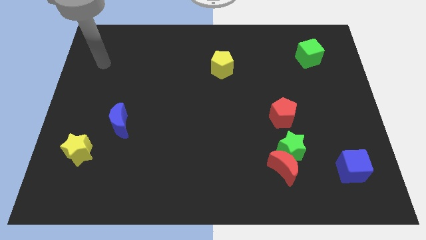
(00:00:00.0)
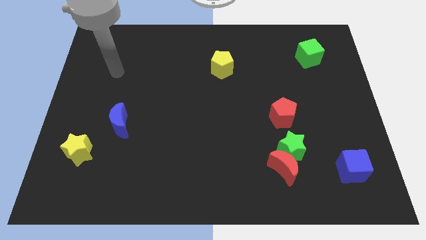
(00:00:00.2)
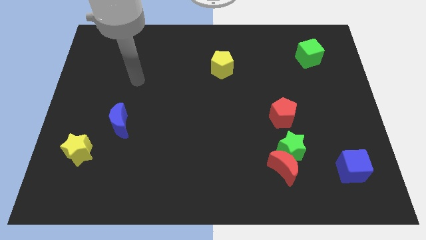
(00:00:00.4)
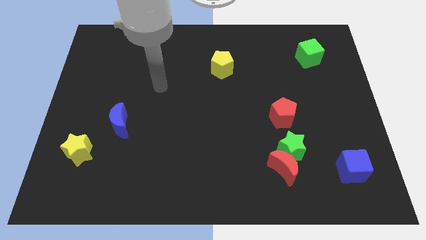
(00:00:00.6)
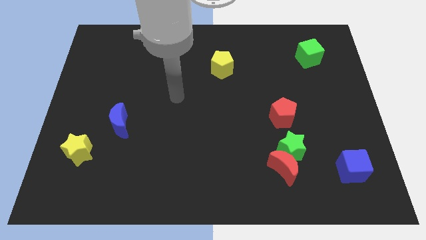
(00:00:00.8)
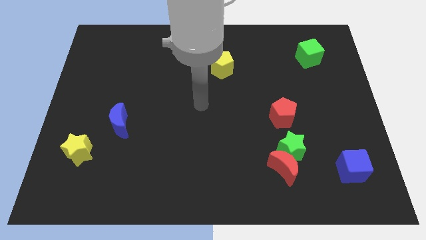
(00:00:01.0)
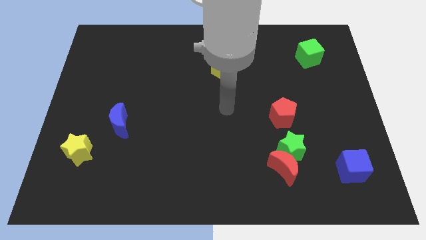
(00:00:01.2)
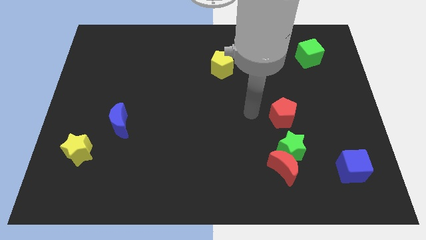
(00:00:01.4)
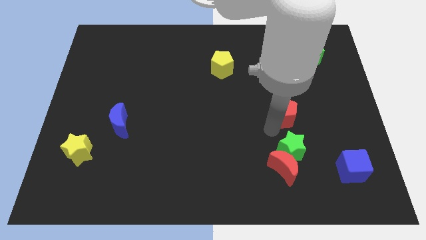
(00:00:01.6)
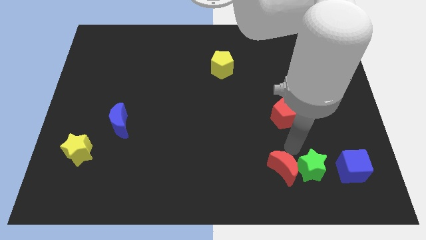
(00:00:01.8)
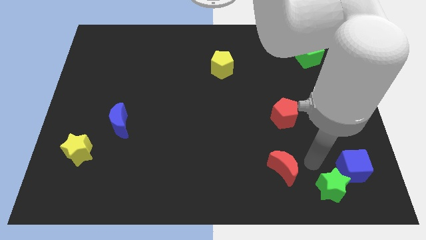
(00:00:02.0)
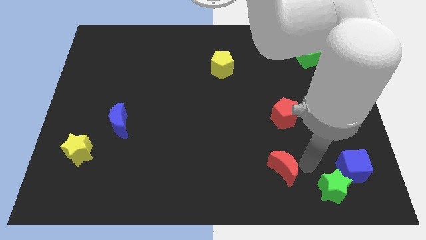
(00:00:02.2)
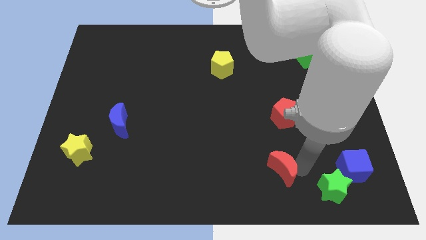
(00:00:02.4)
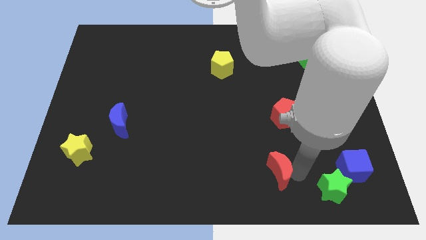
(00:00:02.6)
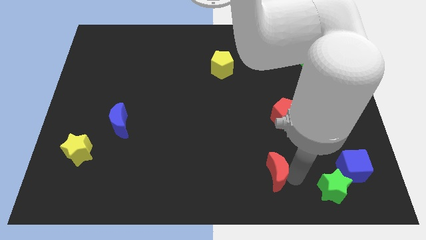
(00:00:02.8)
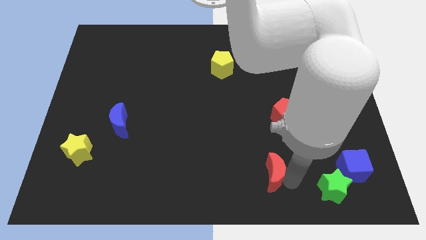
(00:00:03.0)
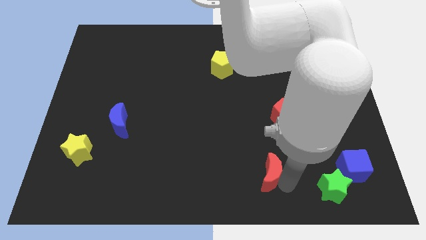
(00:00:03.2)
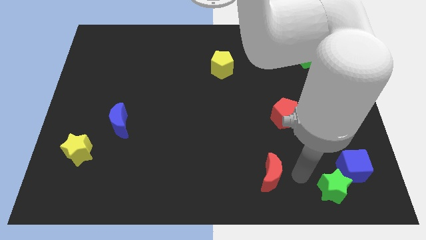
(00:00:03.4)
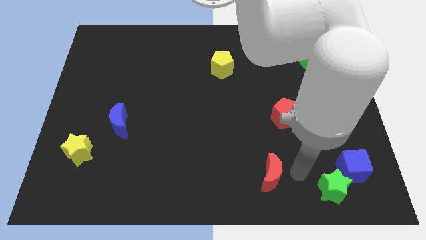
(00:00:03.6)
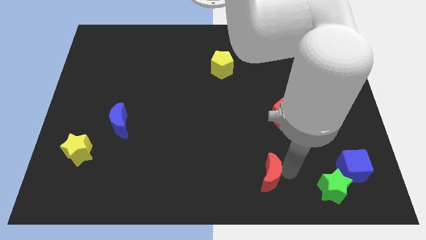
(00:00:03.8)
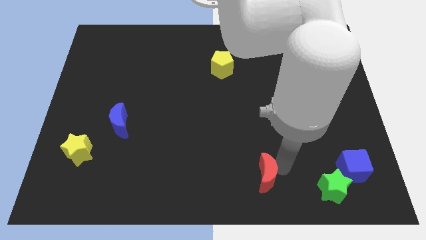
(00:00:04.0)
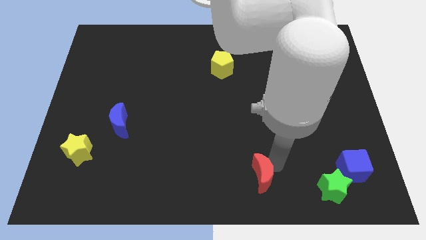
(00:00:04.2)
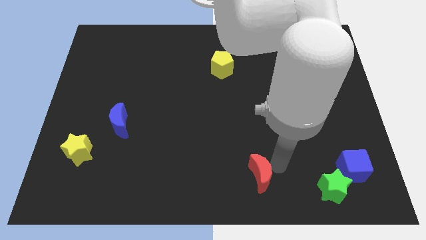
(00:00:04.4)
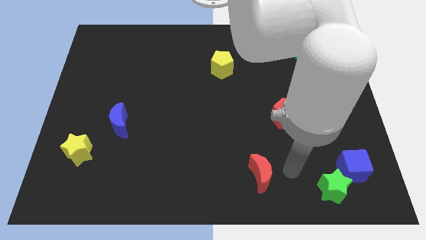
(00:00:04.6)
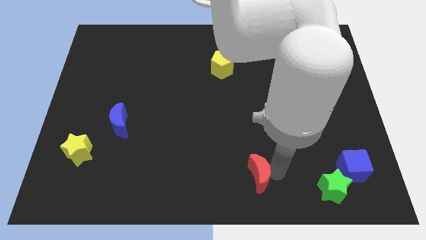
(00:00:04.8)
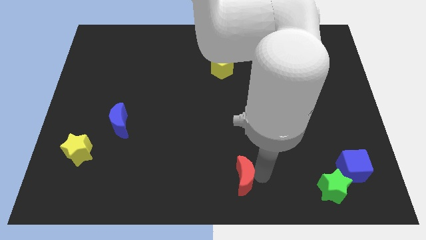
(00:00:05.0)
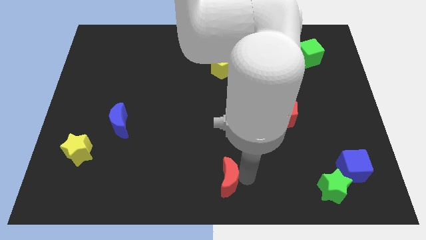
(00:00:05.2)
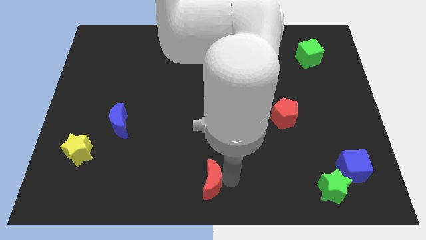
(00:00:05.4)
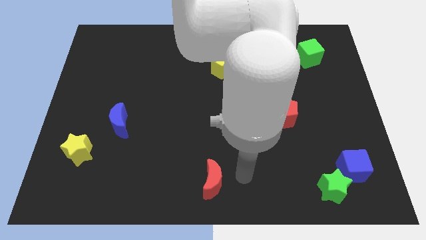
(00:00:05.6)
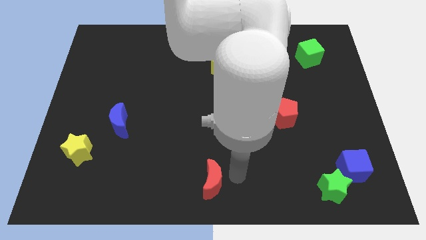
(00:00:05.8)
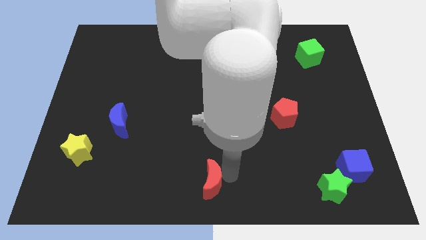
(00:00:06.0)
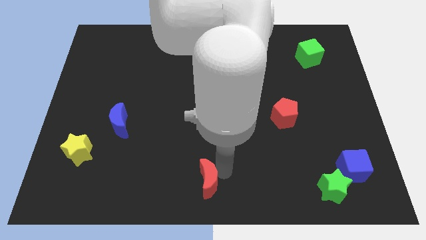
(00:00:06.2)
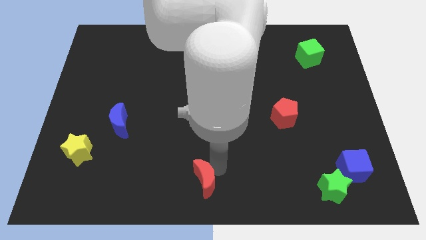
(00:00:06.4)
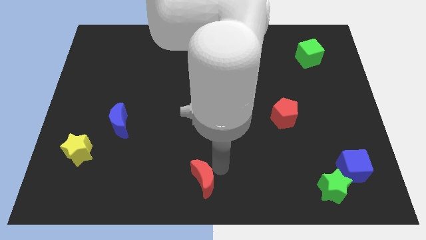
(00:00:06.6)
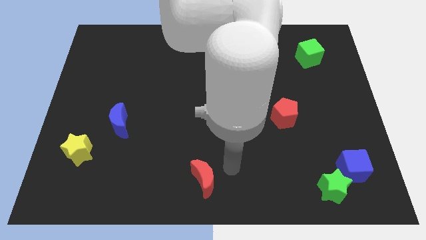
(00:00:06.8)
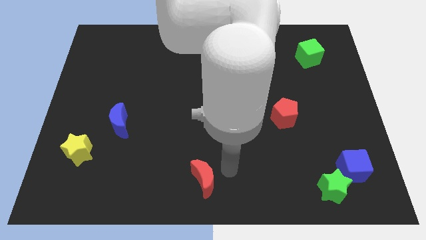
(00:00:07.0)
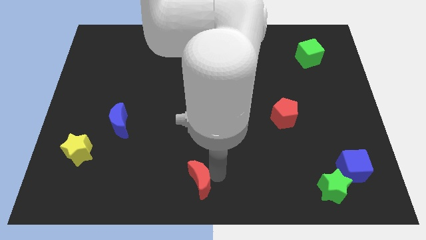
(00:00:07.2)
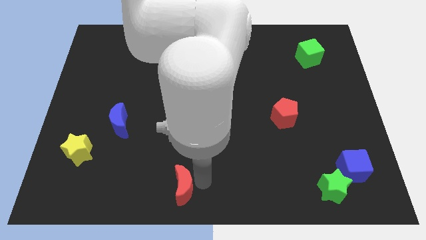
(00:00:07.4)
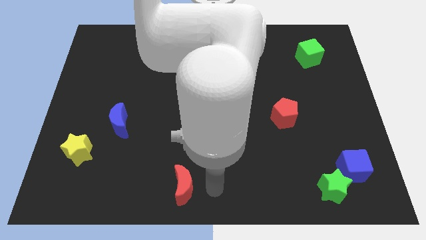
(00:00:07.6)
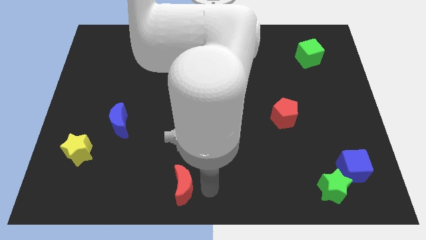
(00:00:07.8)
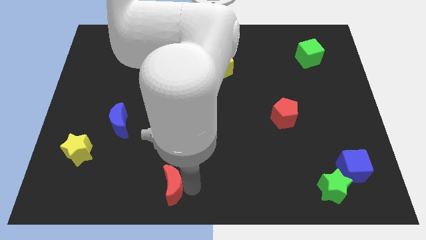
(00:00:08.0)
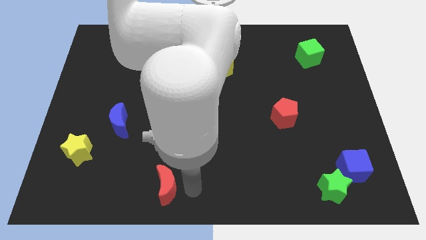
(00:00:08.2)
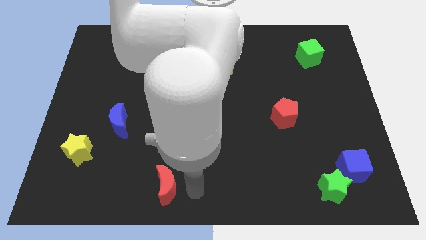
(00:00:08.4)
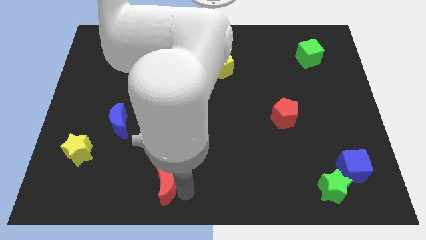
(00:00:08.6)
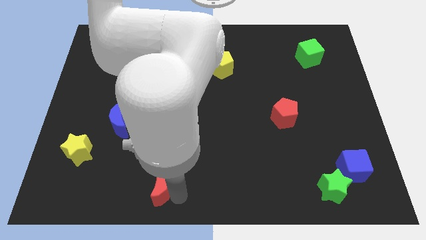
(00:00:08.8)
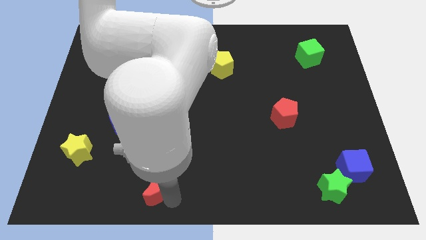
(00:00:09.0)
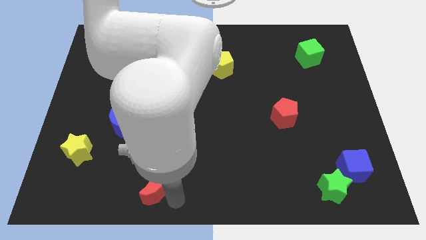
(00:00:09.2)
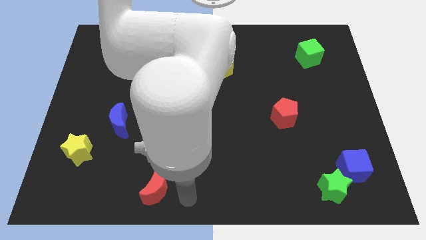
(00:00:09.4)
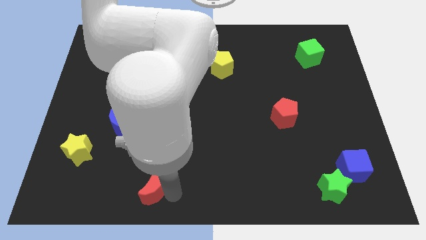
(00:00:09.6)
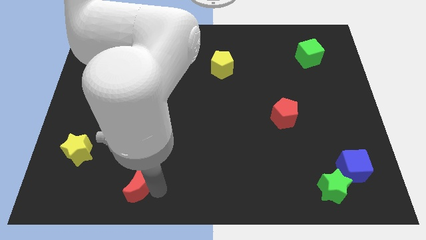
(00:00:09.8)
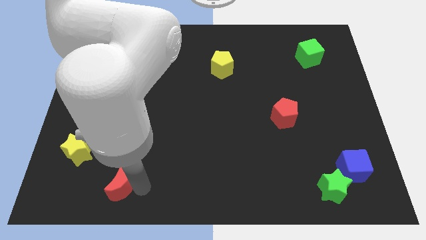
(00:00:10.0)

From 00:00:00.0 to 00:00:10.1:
move the red moon diagonally down and to the right of the yellow star

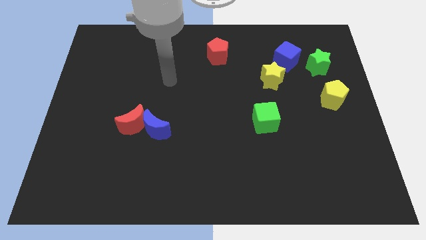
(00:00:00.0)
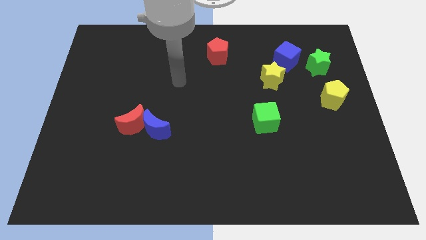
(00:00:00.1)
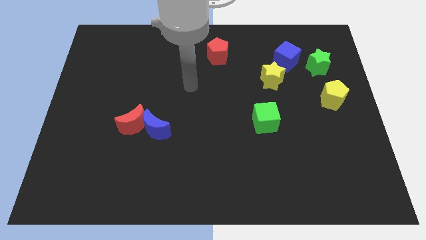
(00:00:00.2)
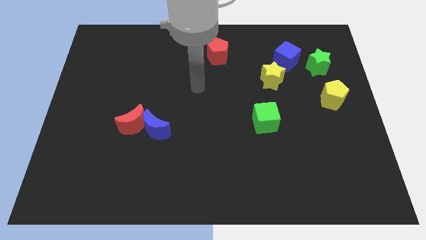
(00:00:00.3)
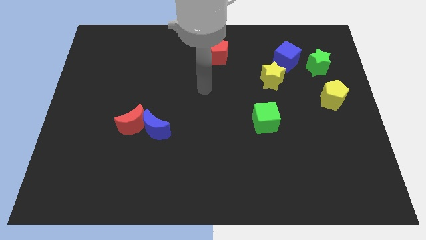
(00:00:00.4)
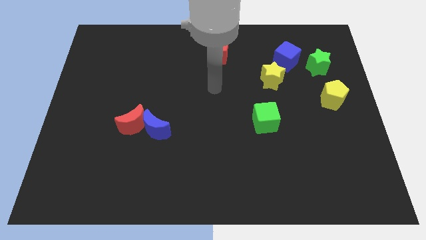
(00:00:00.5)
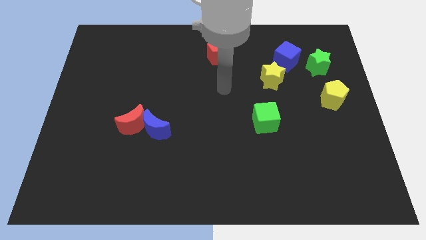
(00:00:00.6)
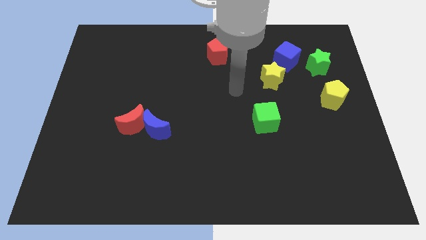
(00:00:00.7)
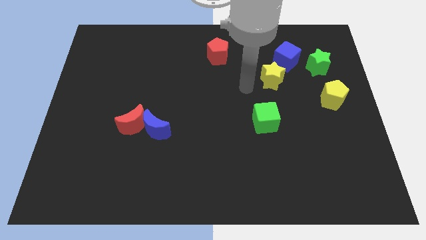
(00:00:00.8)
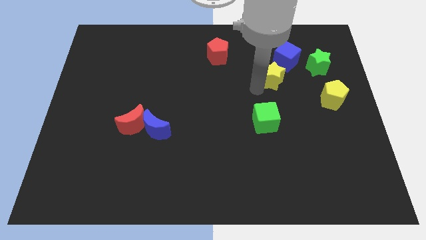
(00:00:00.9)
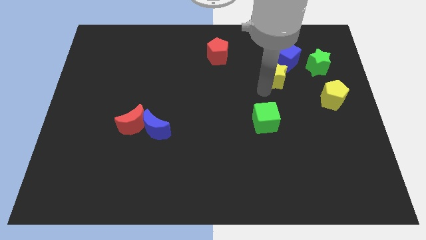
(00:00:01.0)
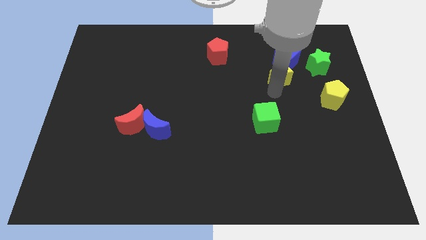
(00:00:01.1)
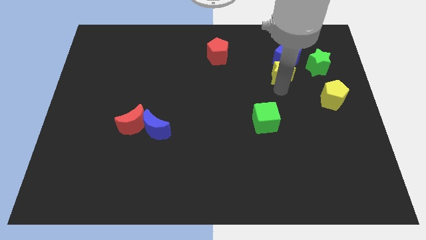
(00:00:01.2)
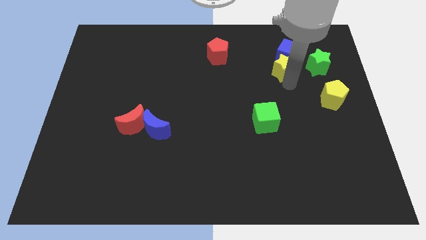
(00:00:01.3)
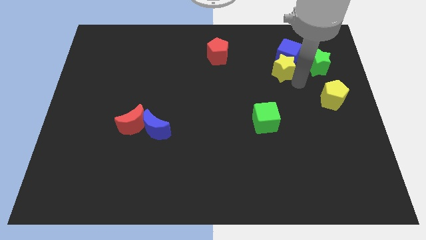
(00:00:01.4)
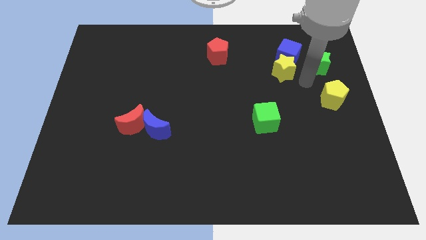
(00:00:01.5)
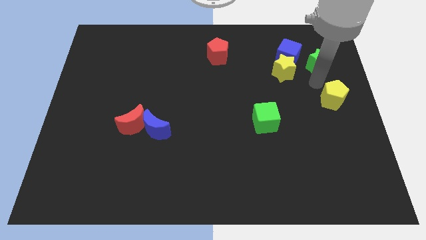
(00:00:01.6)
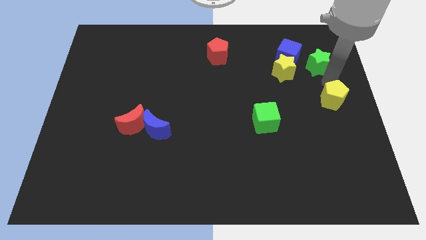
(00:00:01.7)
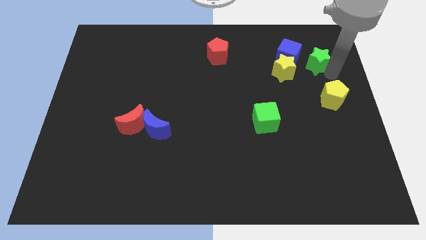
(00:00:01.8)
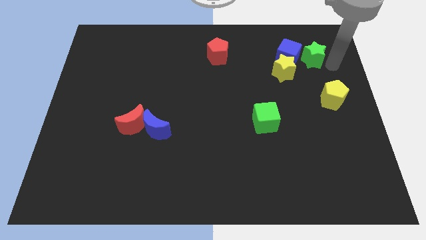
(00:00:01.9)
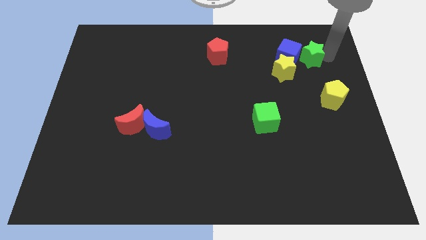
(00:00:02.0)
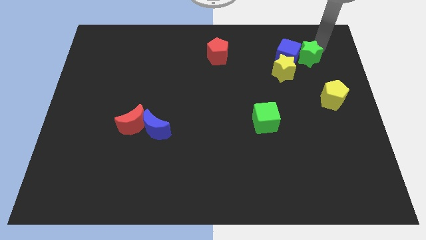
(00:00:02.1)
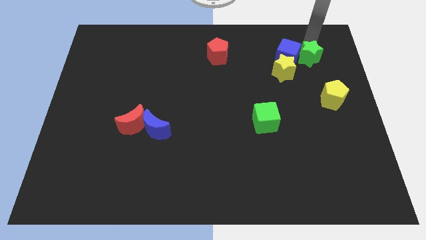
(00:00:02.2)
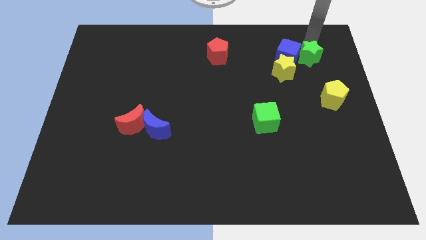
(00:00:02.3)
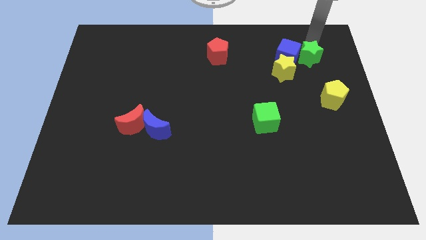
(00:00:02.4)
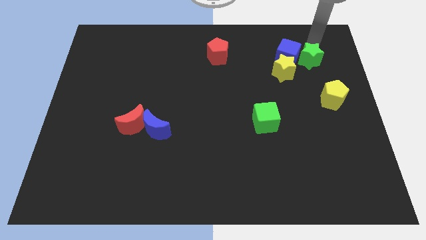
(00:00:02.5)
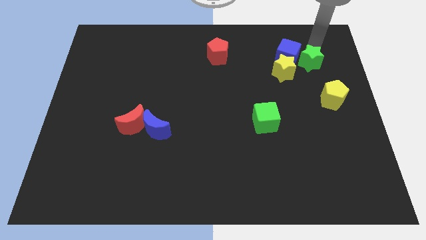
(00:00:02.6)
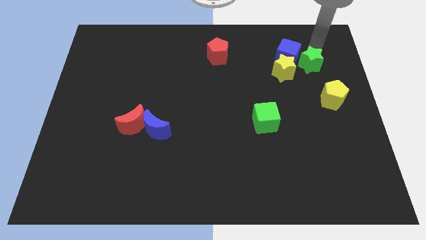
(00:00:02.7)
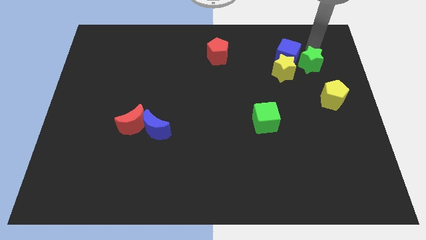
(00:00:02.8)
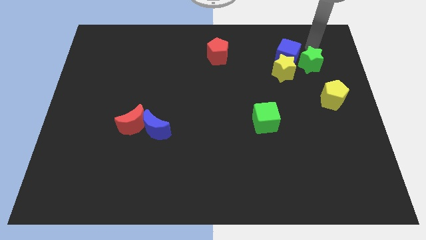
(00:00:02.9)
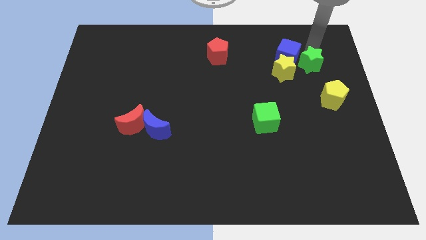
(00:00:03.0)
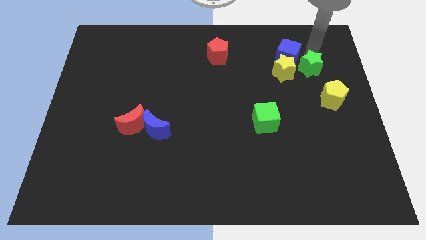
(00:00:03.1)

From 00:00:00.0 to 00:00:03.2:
move the green star diagonally up and to the left of the yellow pentagon
